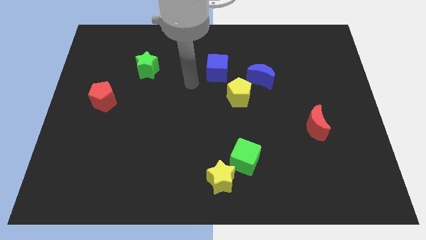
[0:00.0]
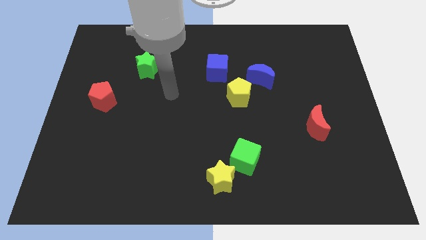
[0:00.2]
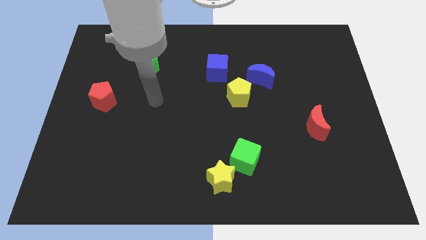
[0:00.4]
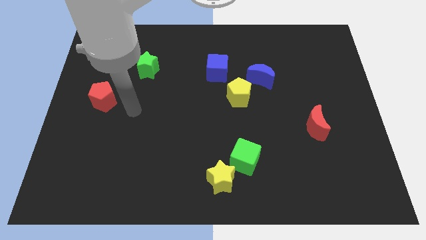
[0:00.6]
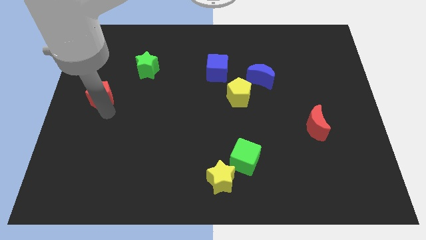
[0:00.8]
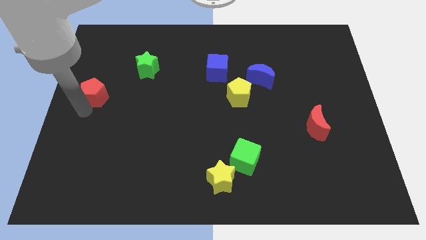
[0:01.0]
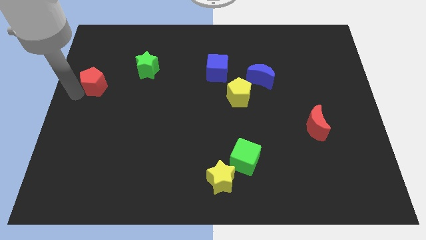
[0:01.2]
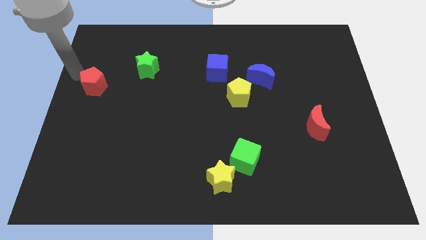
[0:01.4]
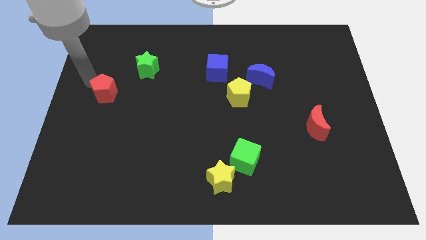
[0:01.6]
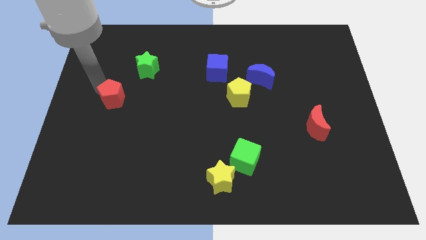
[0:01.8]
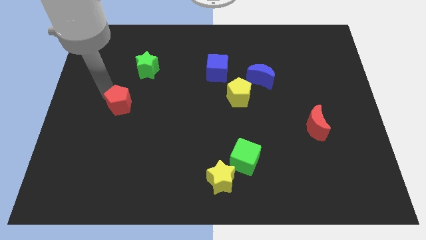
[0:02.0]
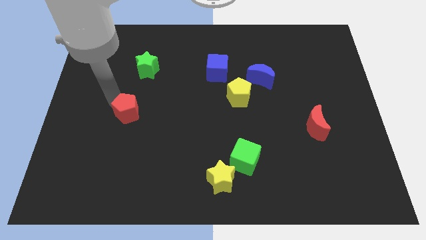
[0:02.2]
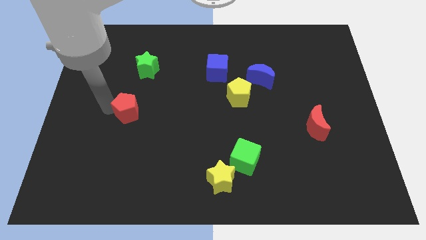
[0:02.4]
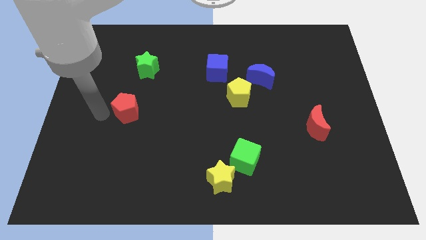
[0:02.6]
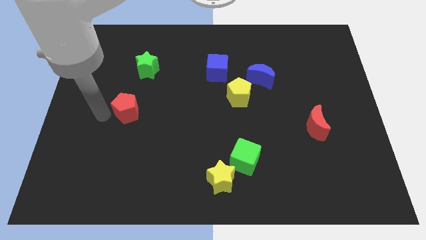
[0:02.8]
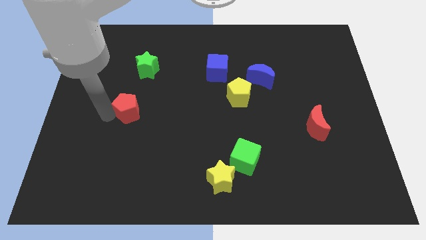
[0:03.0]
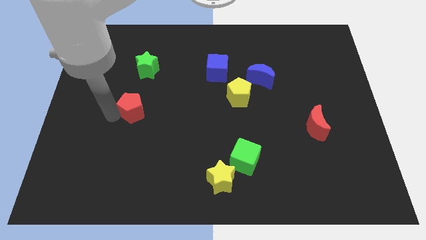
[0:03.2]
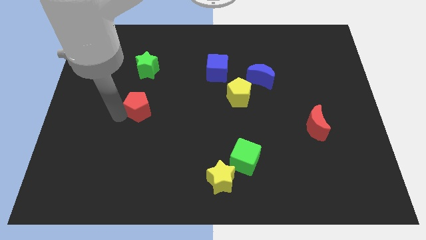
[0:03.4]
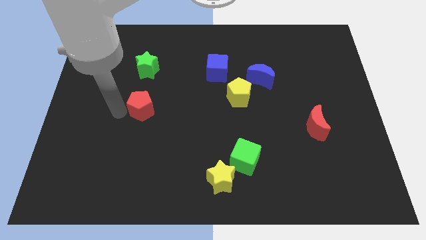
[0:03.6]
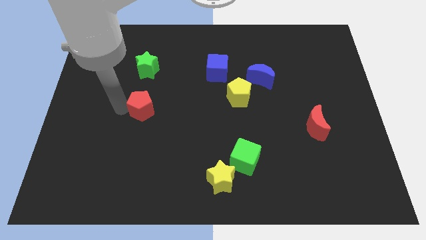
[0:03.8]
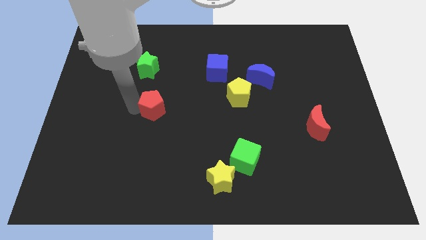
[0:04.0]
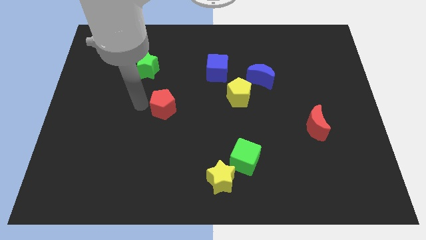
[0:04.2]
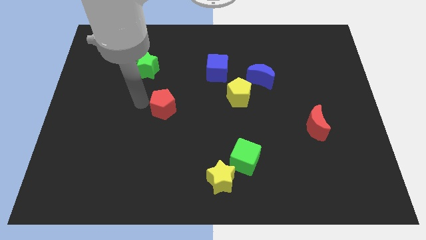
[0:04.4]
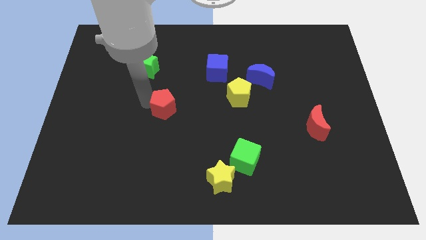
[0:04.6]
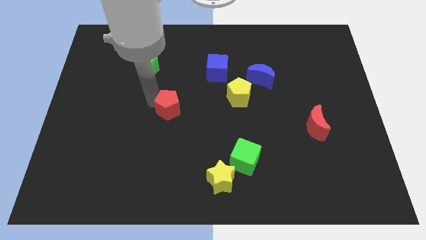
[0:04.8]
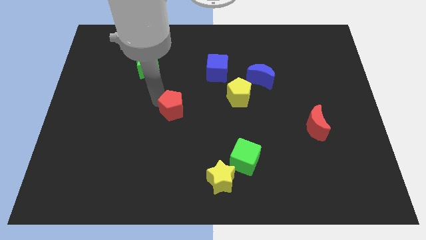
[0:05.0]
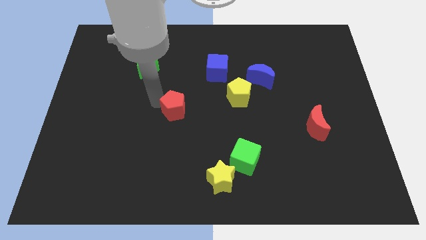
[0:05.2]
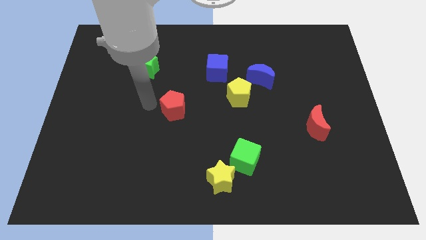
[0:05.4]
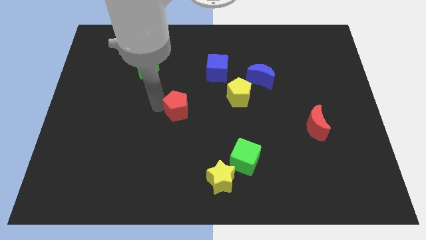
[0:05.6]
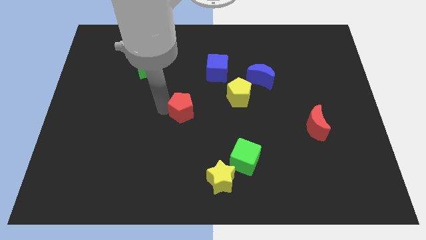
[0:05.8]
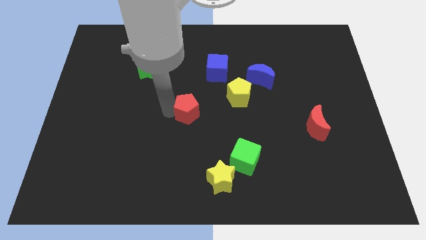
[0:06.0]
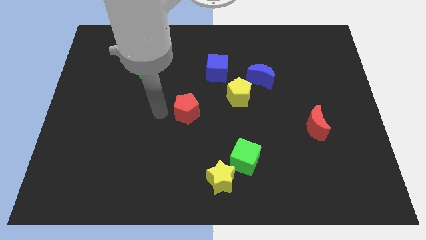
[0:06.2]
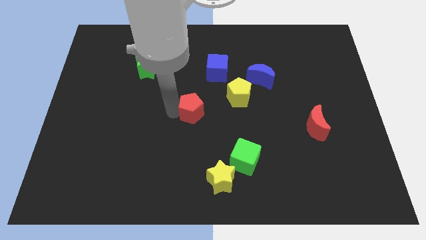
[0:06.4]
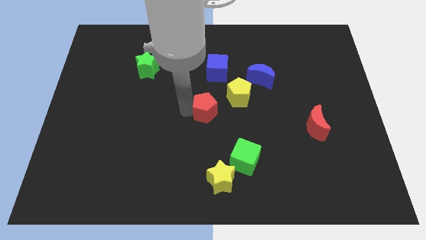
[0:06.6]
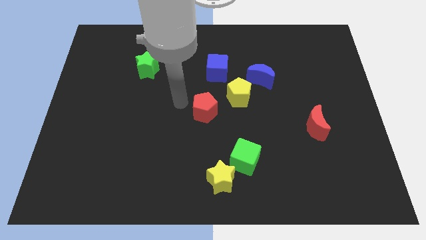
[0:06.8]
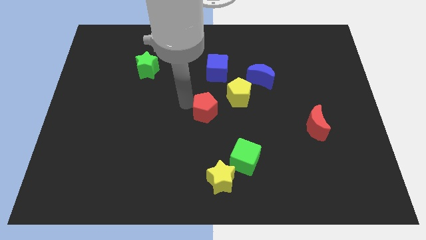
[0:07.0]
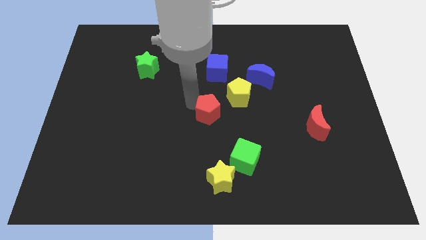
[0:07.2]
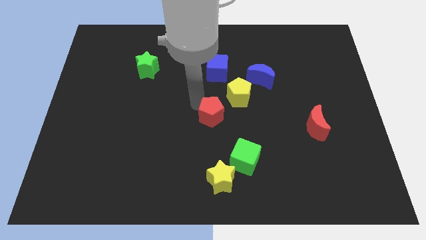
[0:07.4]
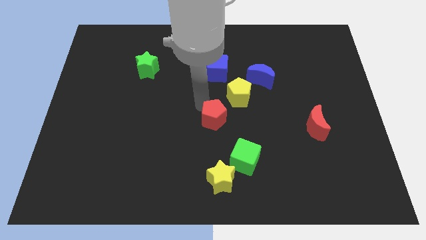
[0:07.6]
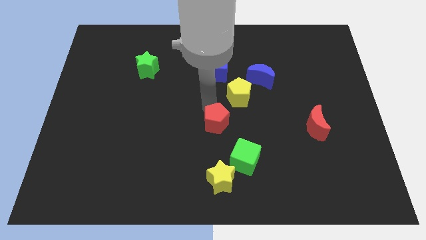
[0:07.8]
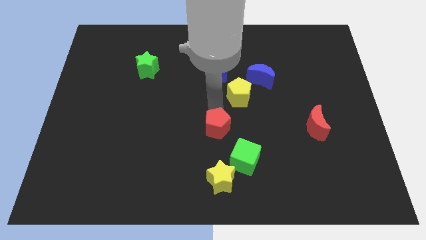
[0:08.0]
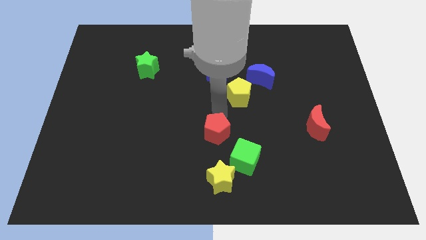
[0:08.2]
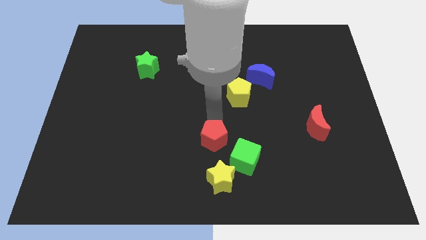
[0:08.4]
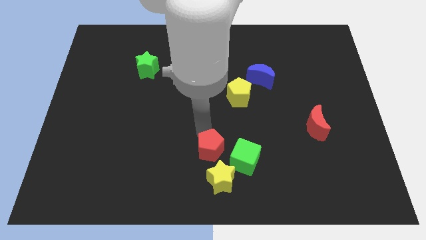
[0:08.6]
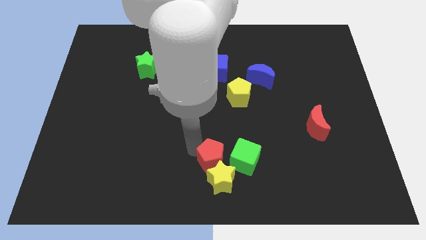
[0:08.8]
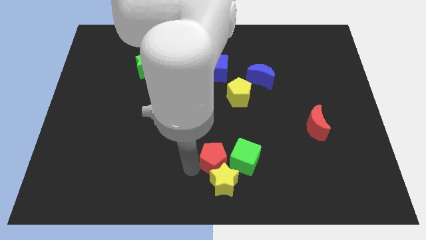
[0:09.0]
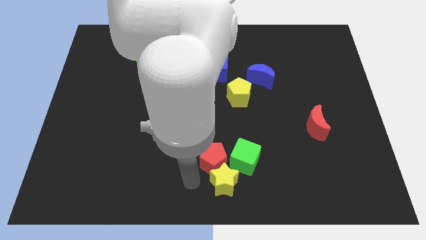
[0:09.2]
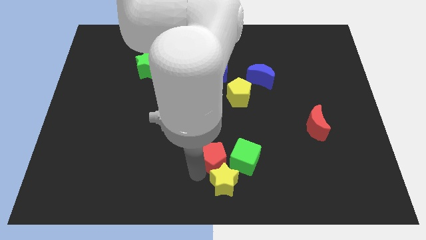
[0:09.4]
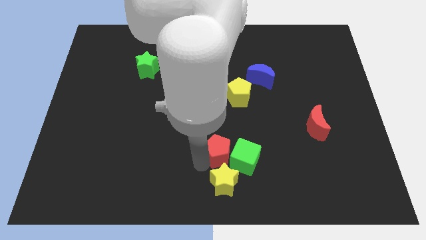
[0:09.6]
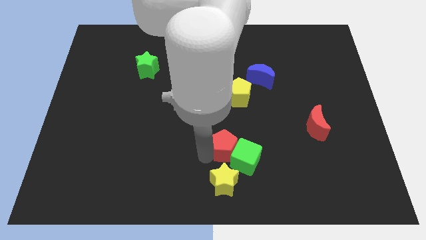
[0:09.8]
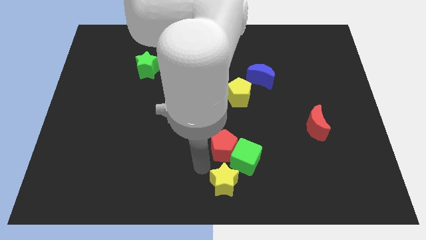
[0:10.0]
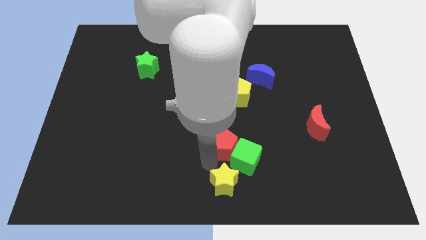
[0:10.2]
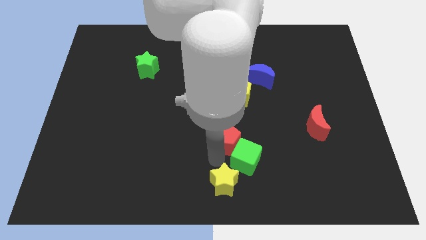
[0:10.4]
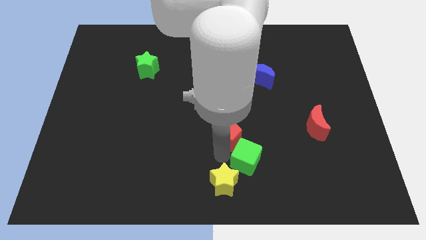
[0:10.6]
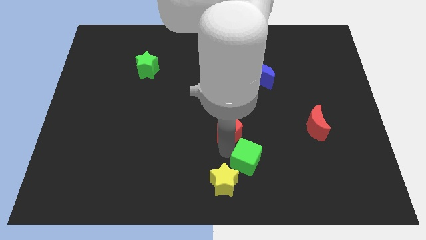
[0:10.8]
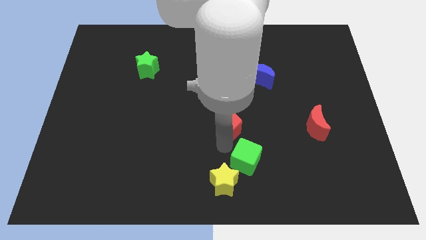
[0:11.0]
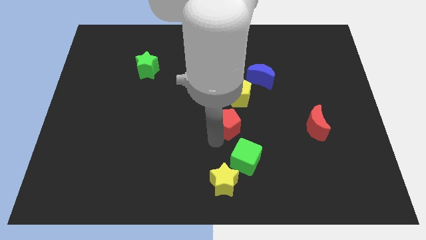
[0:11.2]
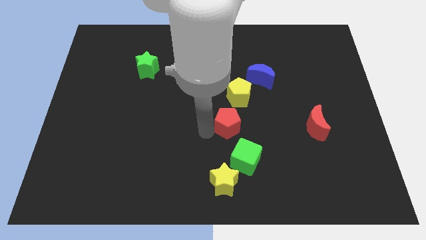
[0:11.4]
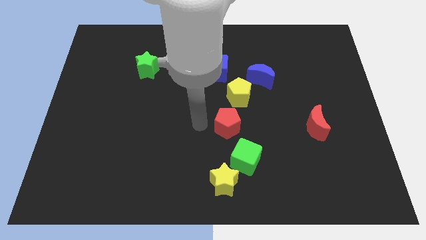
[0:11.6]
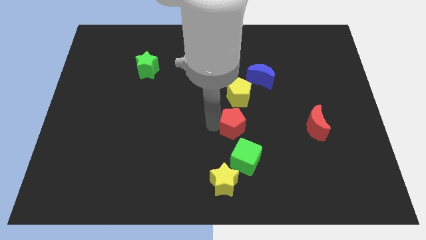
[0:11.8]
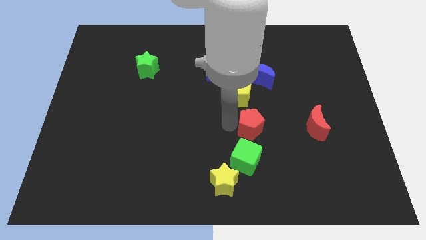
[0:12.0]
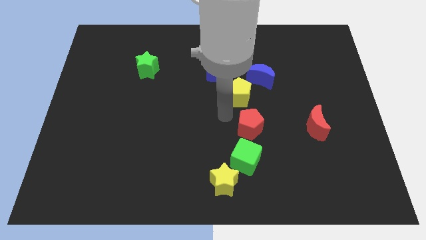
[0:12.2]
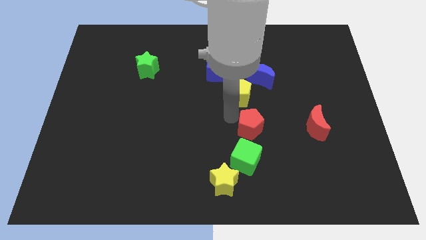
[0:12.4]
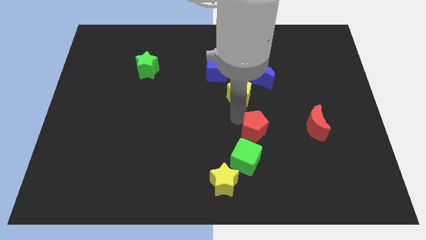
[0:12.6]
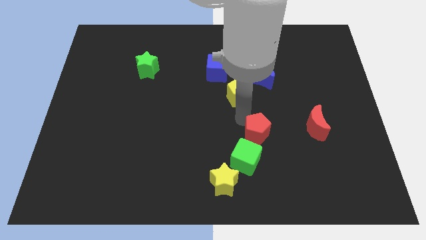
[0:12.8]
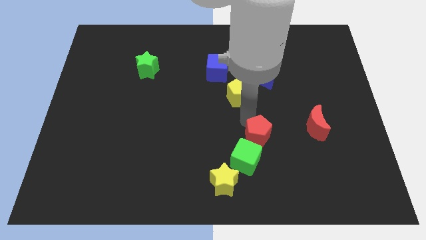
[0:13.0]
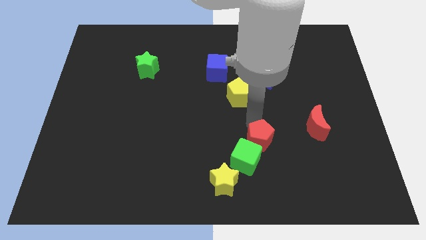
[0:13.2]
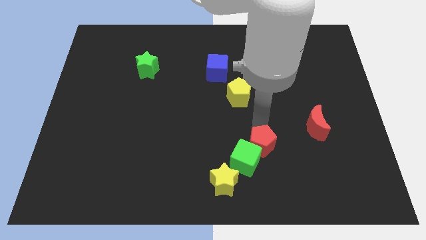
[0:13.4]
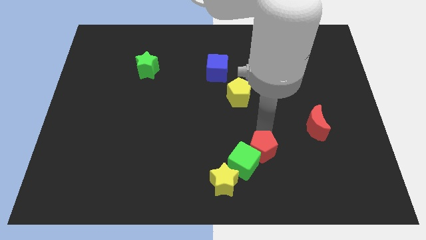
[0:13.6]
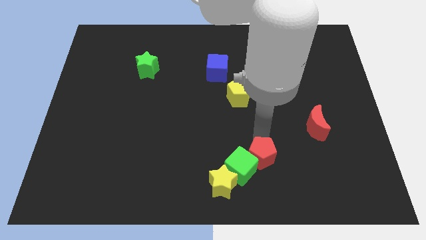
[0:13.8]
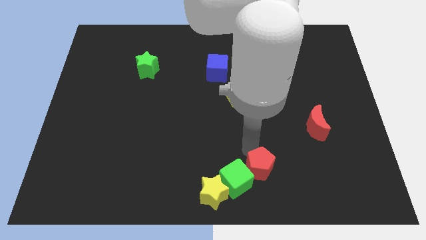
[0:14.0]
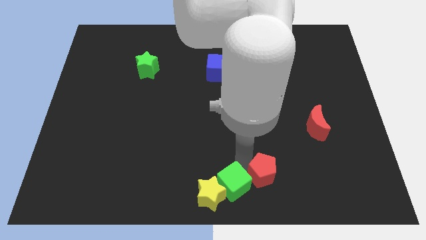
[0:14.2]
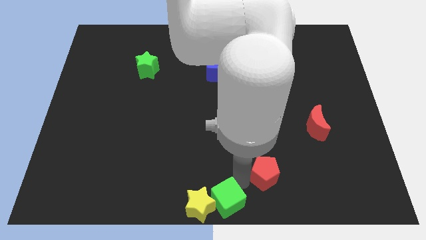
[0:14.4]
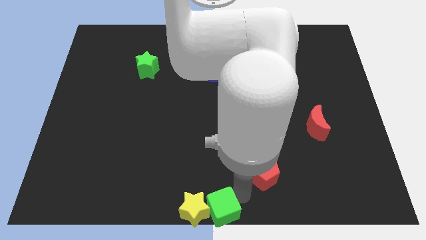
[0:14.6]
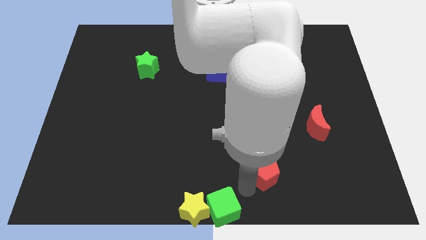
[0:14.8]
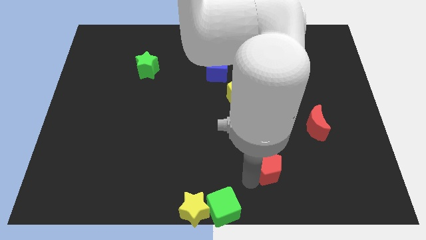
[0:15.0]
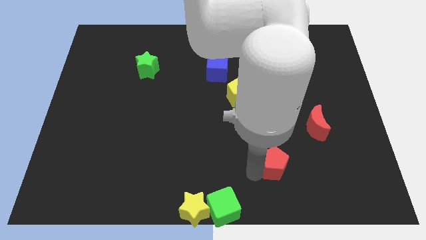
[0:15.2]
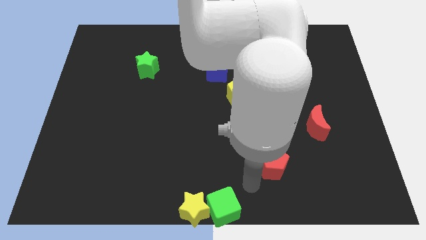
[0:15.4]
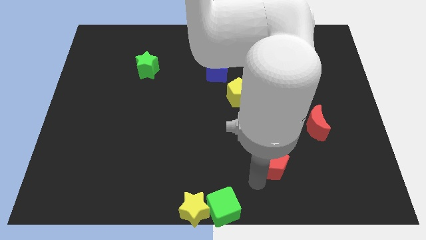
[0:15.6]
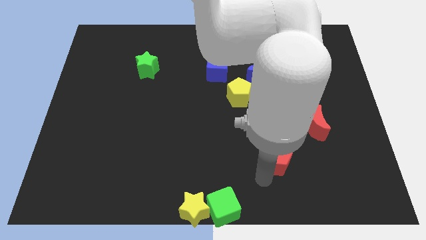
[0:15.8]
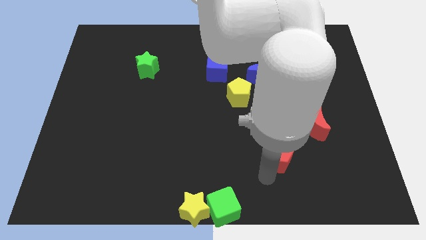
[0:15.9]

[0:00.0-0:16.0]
slide the red pentagon to the bottom left of the red moon
